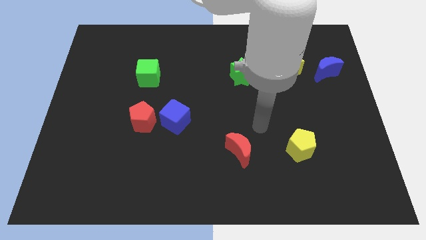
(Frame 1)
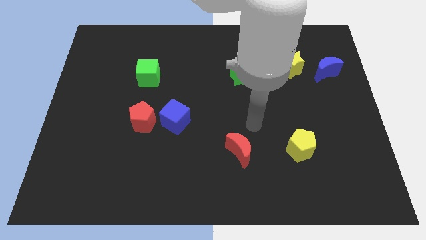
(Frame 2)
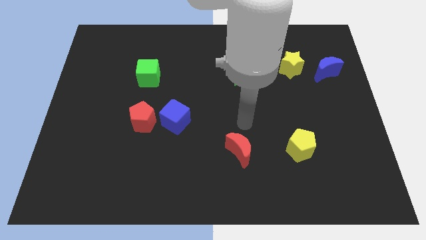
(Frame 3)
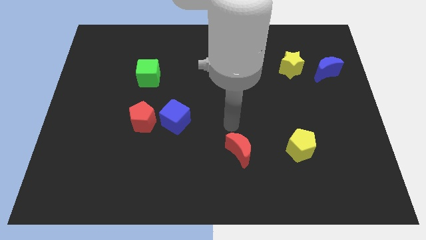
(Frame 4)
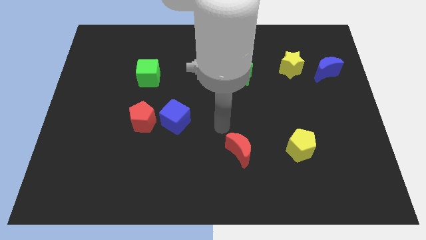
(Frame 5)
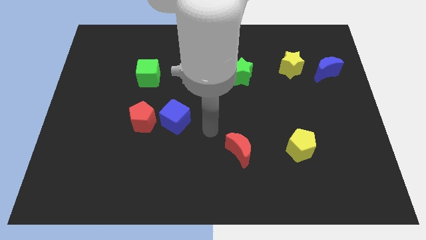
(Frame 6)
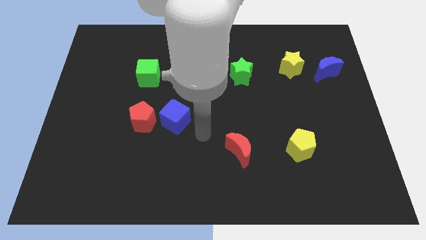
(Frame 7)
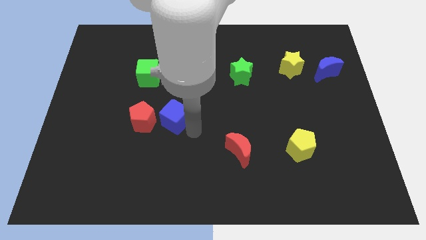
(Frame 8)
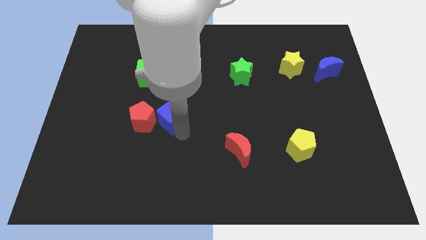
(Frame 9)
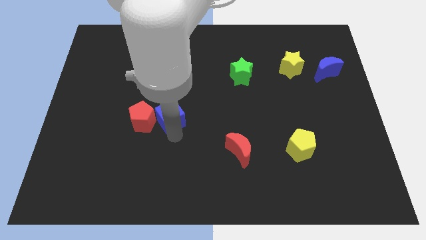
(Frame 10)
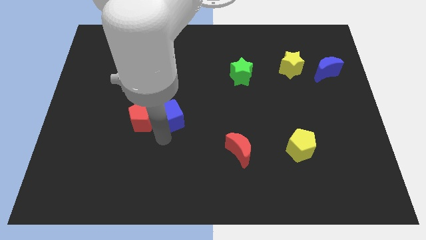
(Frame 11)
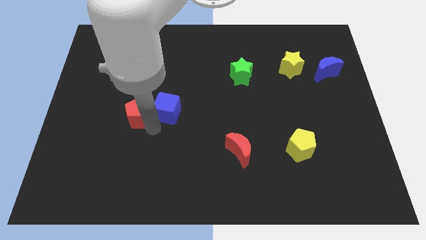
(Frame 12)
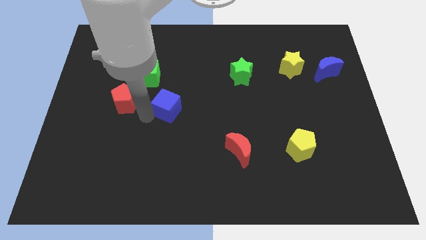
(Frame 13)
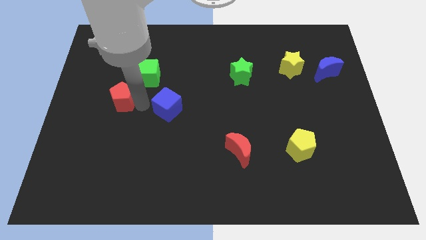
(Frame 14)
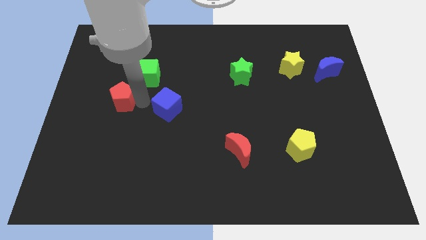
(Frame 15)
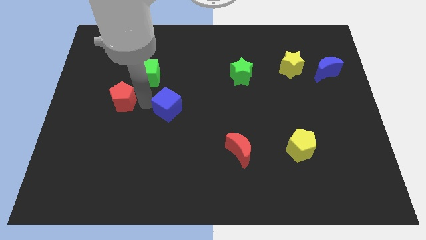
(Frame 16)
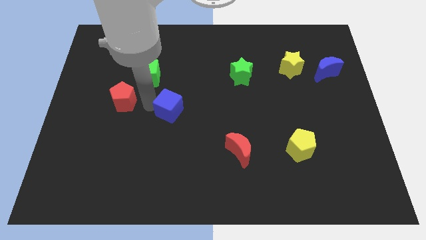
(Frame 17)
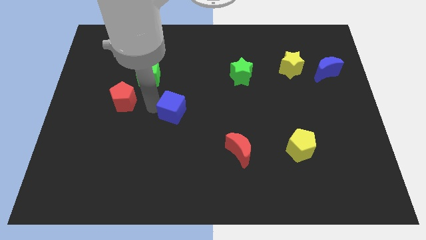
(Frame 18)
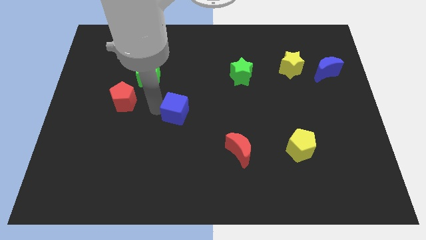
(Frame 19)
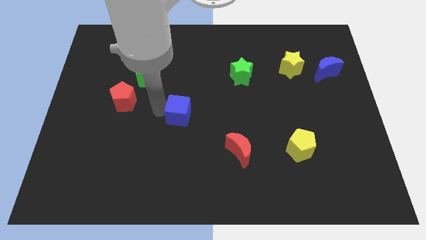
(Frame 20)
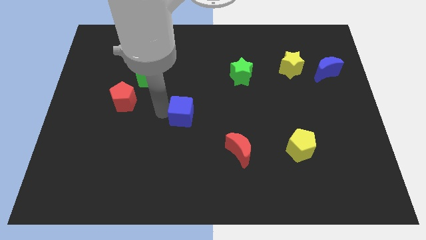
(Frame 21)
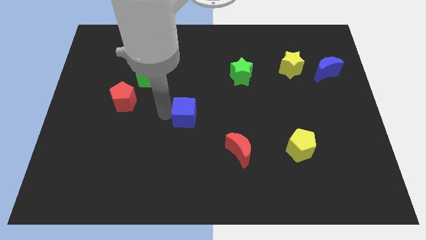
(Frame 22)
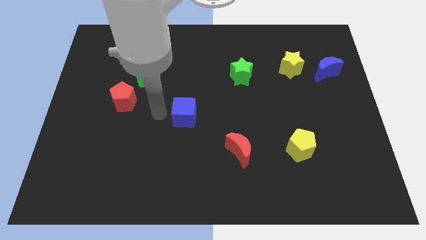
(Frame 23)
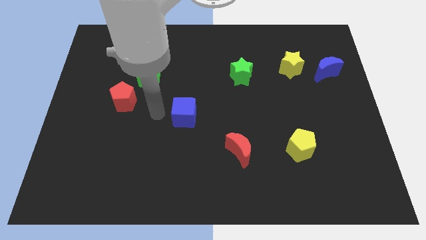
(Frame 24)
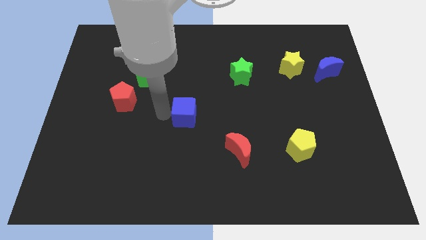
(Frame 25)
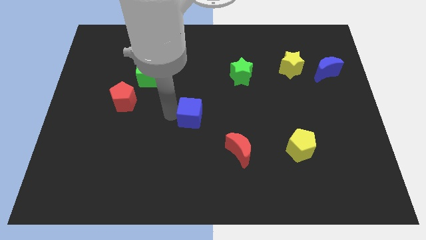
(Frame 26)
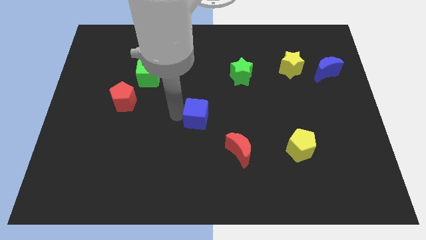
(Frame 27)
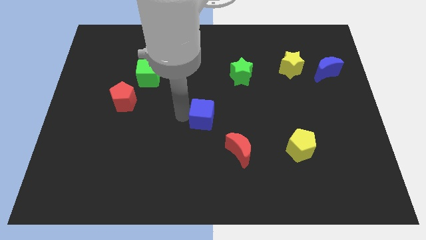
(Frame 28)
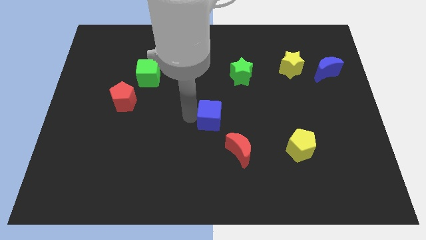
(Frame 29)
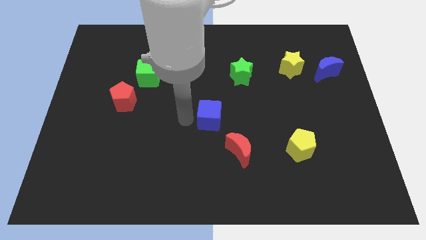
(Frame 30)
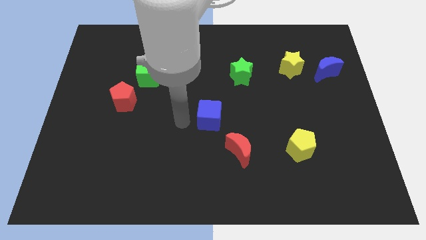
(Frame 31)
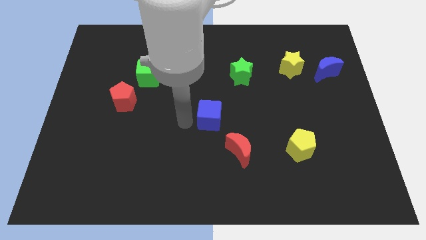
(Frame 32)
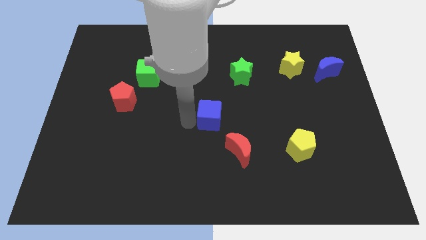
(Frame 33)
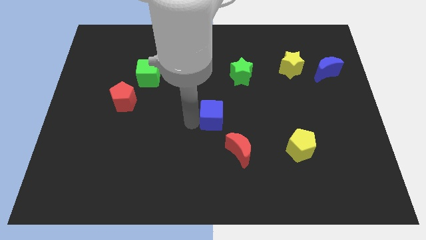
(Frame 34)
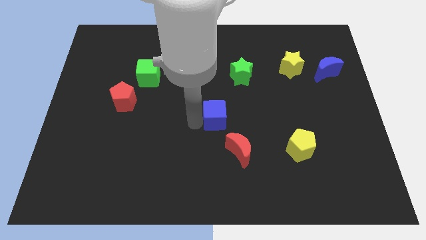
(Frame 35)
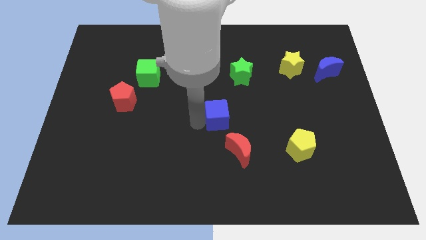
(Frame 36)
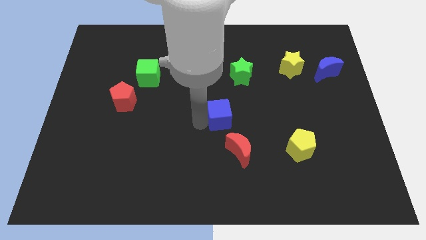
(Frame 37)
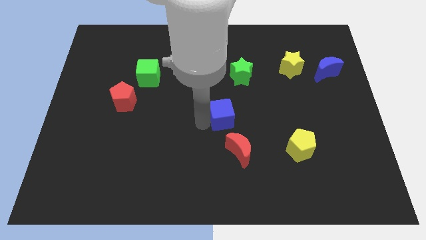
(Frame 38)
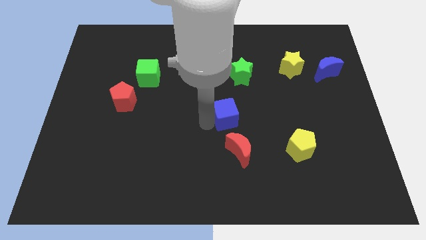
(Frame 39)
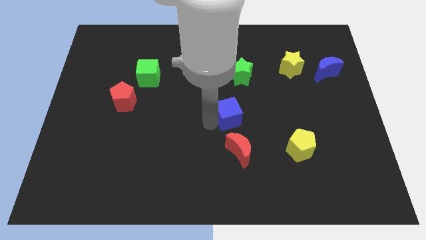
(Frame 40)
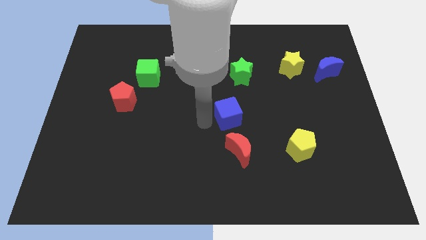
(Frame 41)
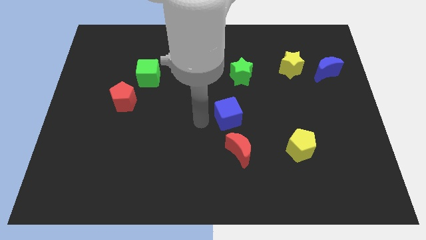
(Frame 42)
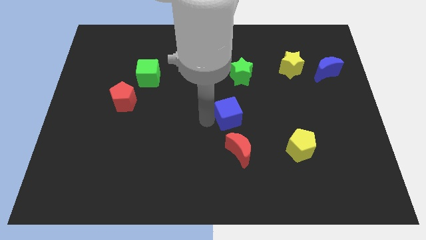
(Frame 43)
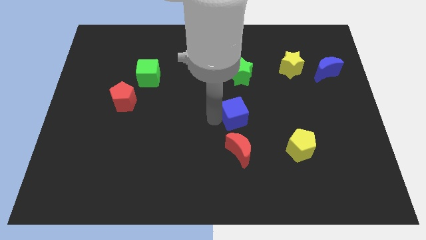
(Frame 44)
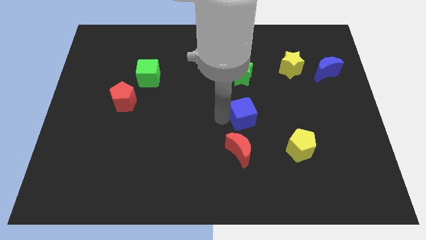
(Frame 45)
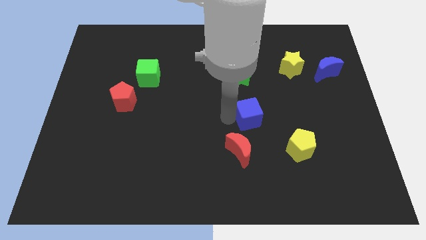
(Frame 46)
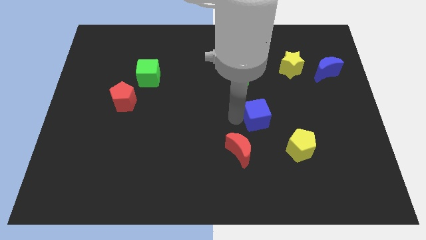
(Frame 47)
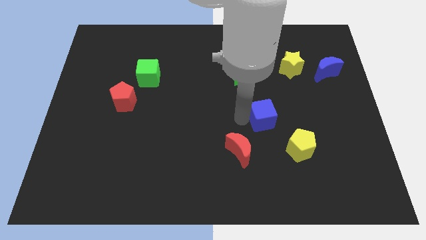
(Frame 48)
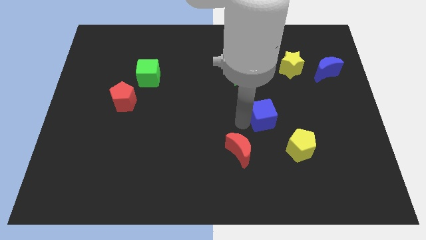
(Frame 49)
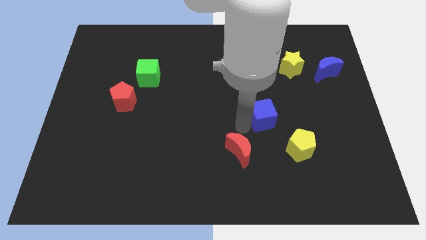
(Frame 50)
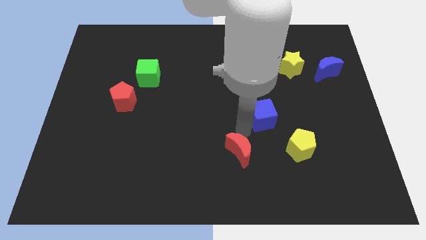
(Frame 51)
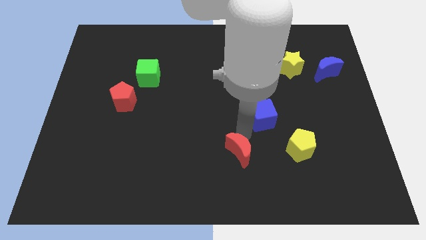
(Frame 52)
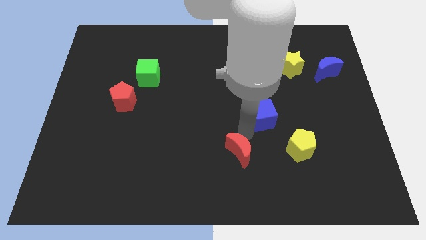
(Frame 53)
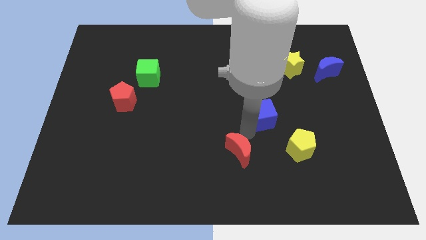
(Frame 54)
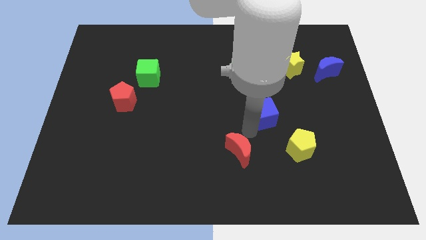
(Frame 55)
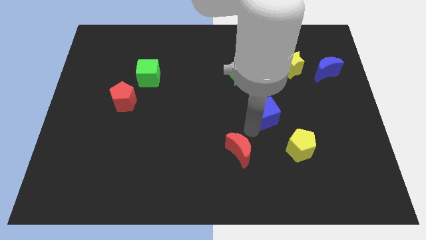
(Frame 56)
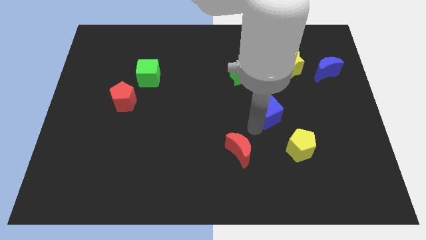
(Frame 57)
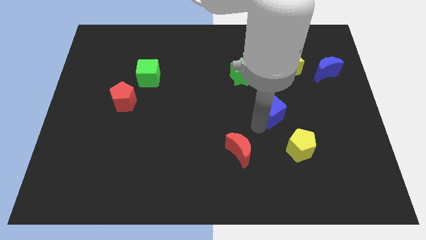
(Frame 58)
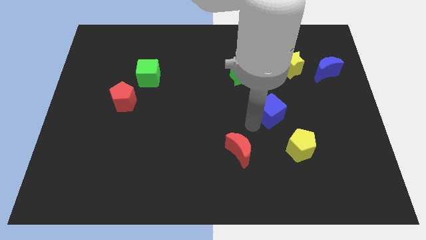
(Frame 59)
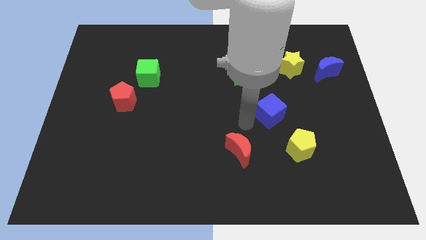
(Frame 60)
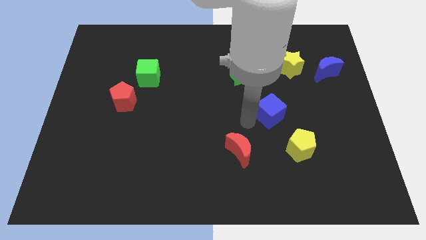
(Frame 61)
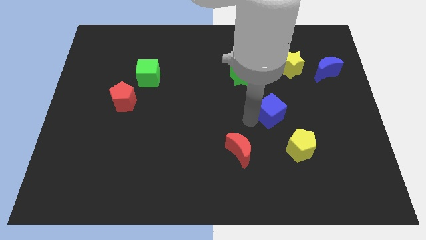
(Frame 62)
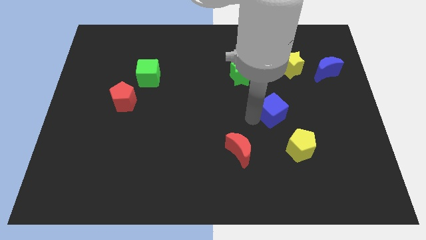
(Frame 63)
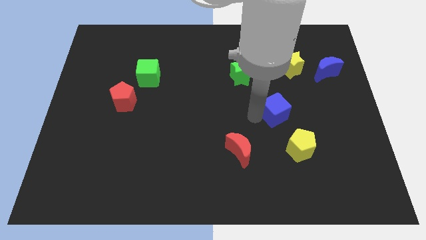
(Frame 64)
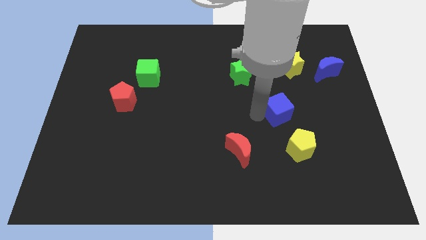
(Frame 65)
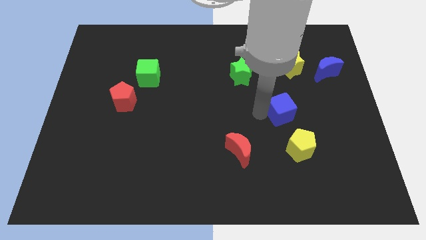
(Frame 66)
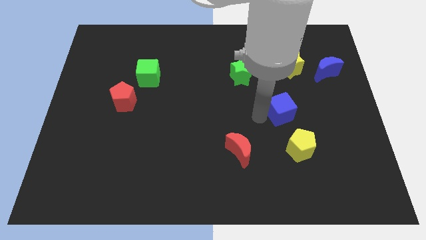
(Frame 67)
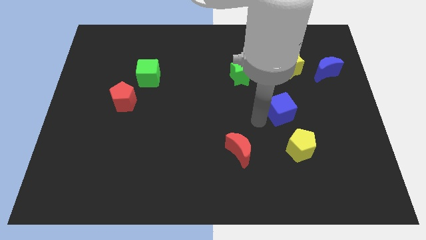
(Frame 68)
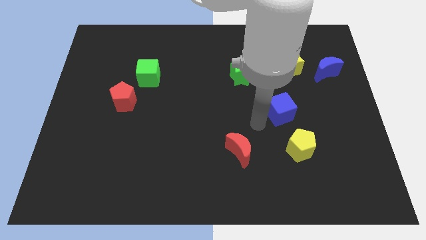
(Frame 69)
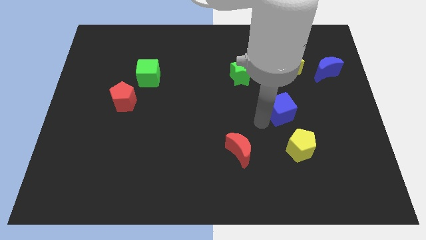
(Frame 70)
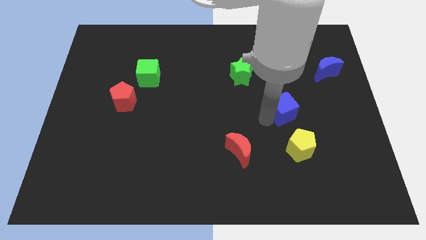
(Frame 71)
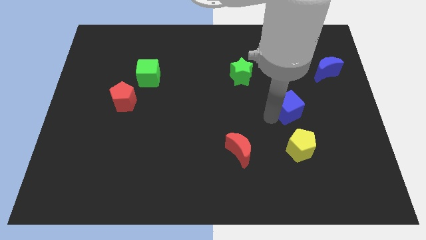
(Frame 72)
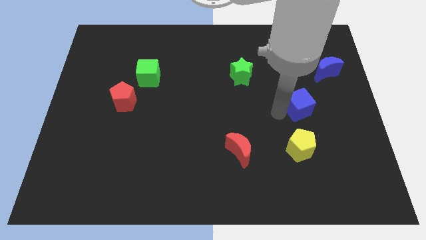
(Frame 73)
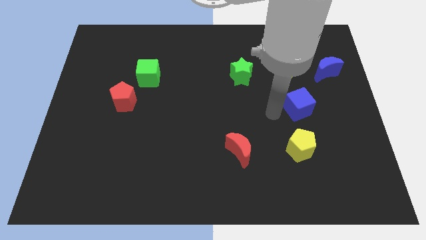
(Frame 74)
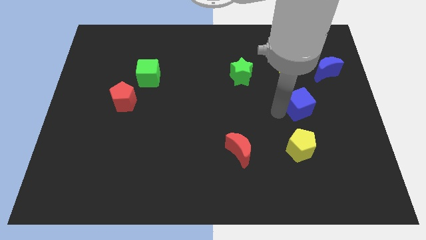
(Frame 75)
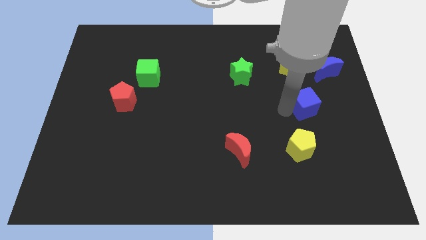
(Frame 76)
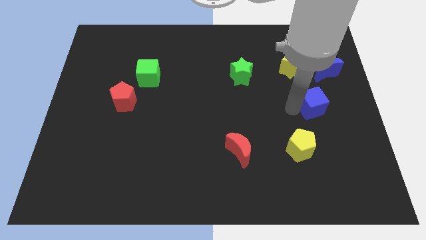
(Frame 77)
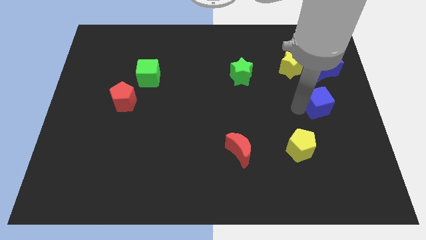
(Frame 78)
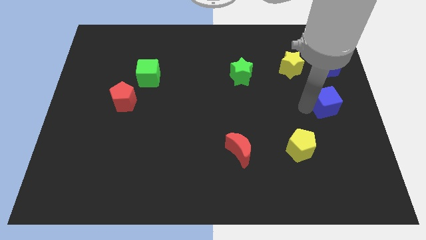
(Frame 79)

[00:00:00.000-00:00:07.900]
put the blue cube to the right side of the board
